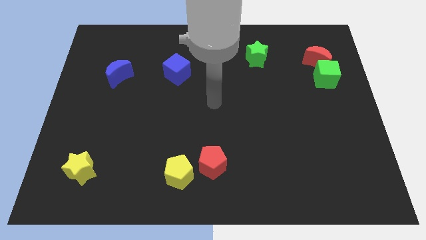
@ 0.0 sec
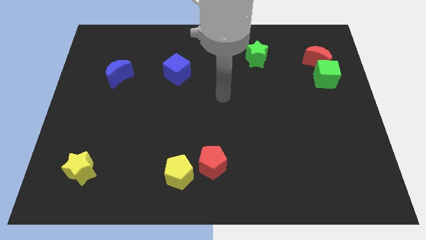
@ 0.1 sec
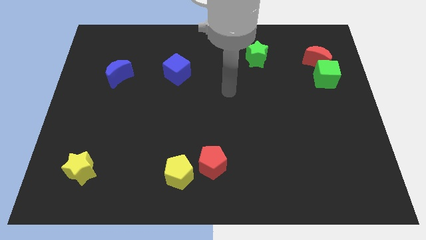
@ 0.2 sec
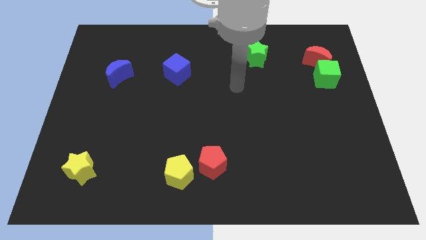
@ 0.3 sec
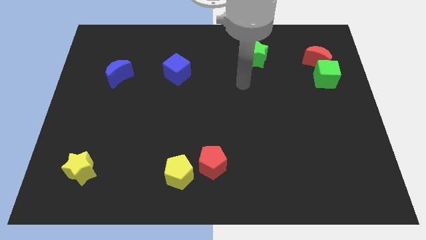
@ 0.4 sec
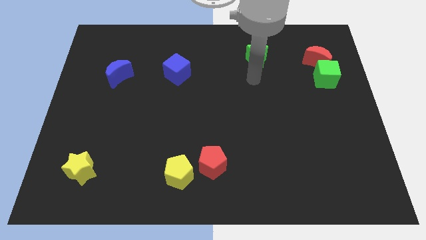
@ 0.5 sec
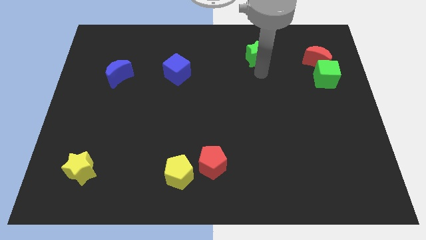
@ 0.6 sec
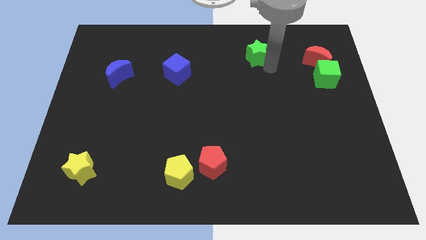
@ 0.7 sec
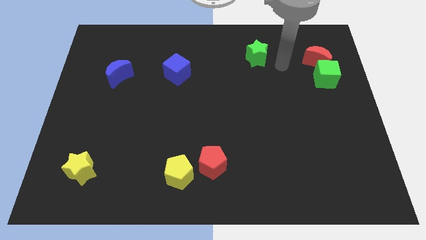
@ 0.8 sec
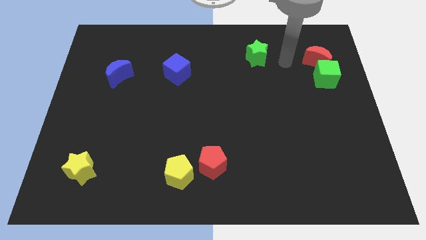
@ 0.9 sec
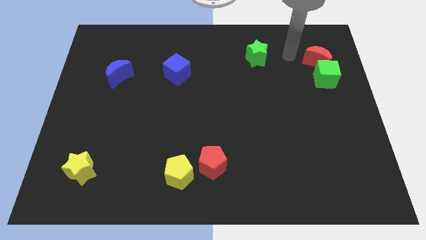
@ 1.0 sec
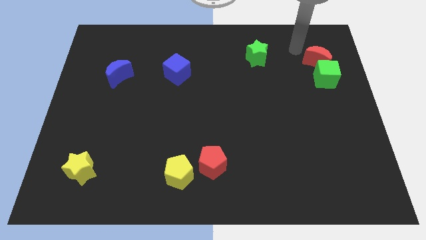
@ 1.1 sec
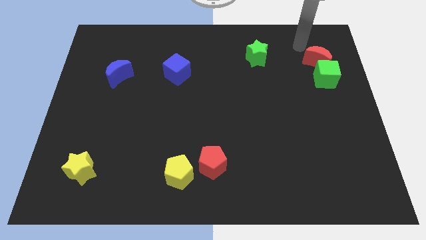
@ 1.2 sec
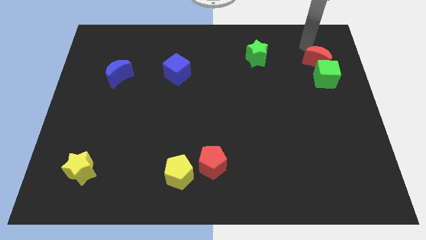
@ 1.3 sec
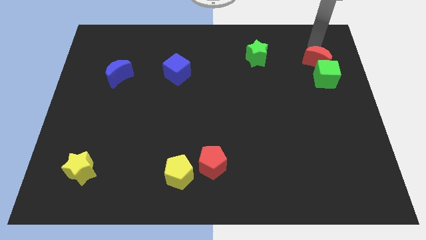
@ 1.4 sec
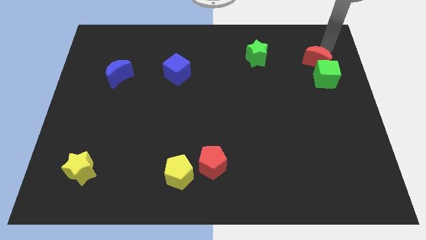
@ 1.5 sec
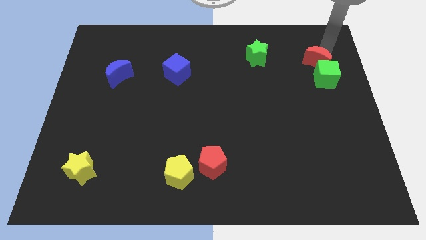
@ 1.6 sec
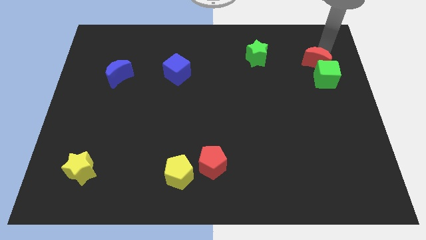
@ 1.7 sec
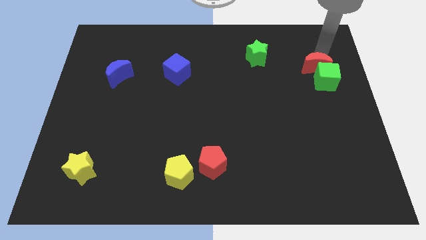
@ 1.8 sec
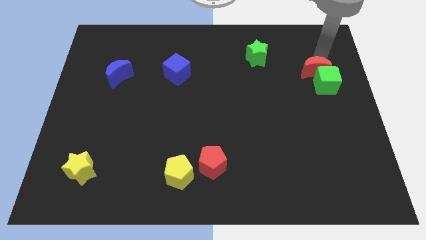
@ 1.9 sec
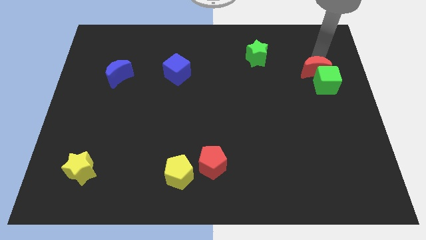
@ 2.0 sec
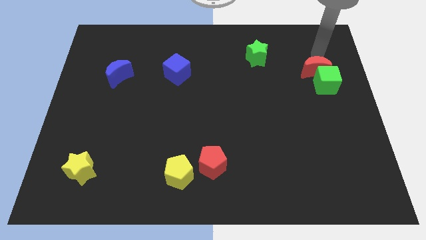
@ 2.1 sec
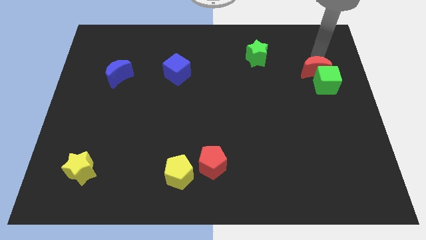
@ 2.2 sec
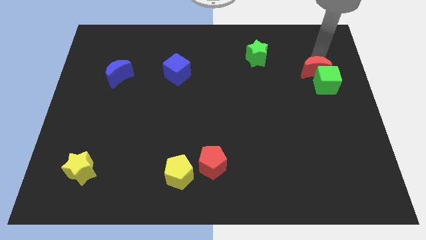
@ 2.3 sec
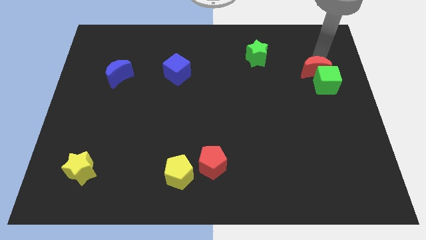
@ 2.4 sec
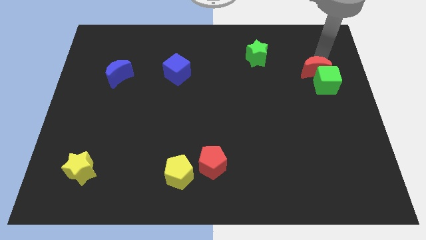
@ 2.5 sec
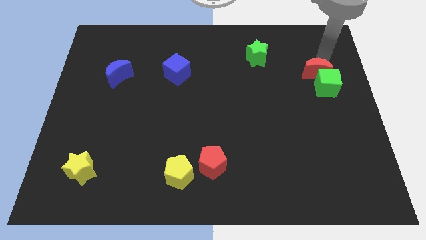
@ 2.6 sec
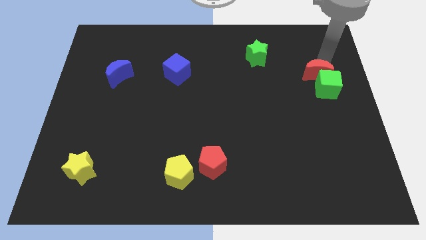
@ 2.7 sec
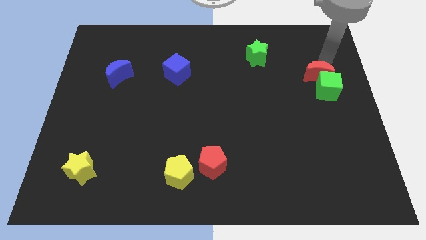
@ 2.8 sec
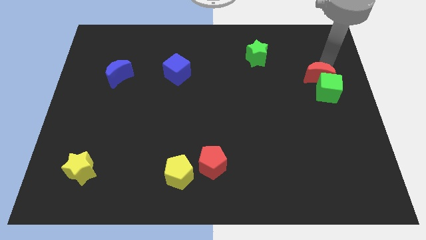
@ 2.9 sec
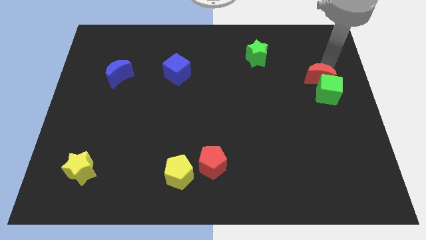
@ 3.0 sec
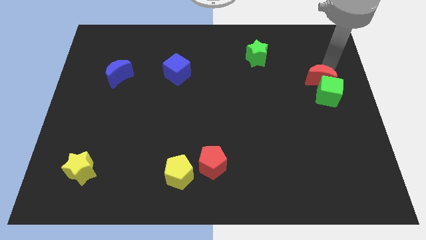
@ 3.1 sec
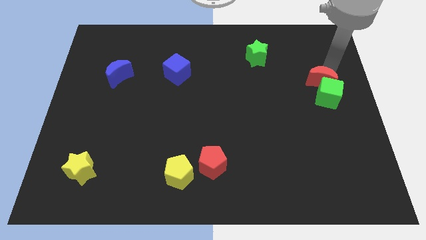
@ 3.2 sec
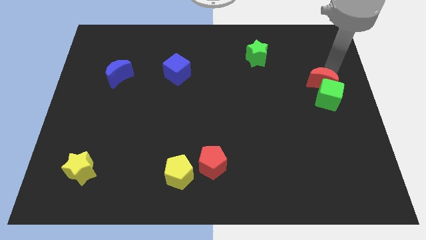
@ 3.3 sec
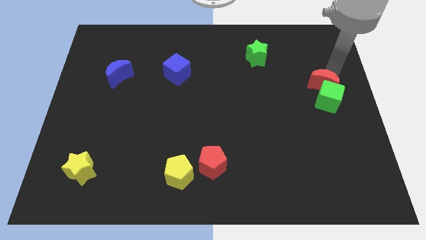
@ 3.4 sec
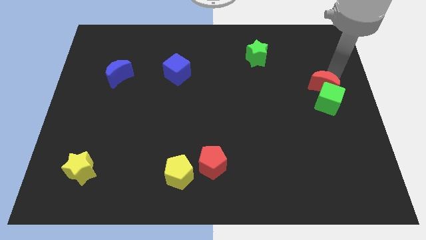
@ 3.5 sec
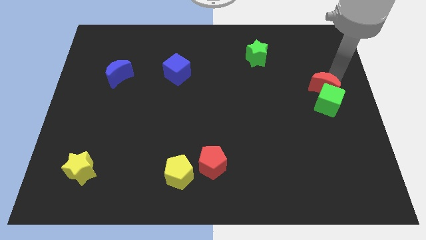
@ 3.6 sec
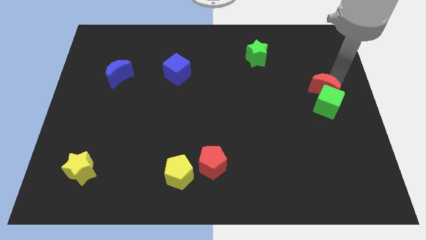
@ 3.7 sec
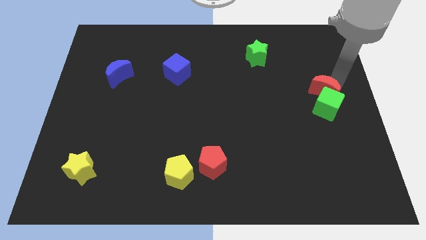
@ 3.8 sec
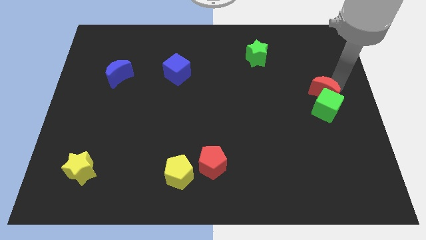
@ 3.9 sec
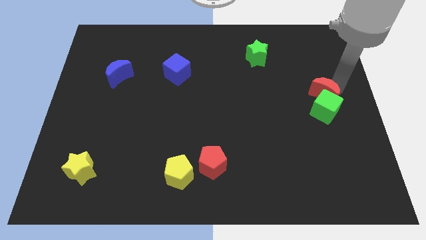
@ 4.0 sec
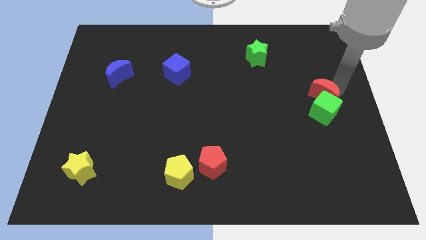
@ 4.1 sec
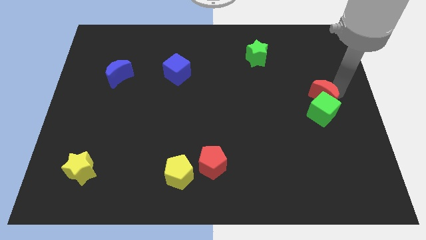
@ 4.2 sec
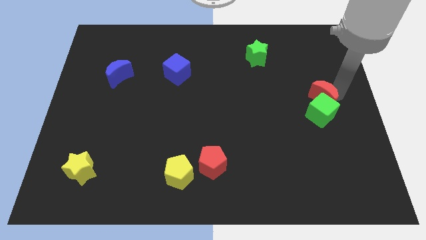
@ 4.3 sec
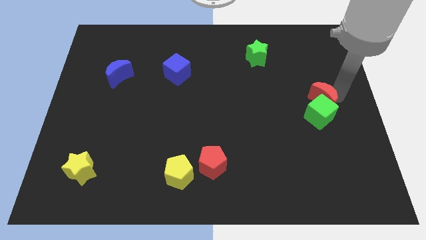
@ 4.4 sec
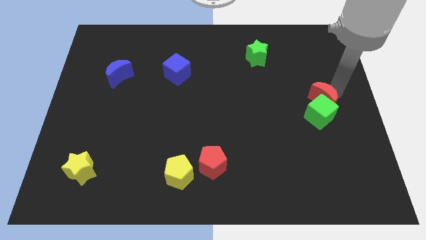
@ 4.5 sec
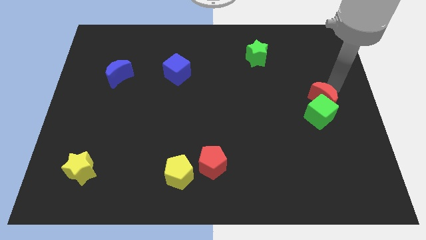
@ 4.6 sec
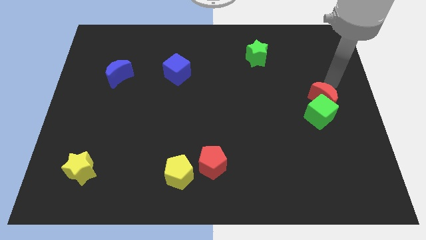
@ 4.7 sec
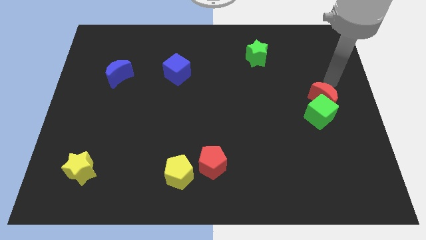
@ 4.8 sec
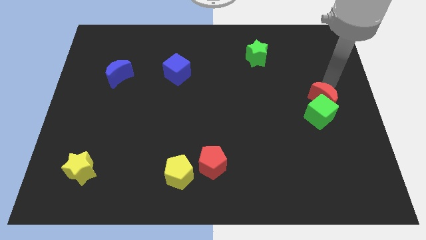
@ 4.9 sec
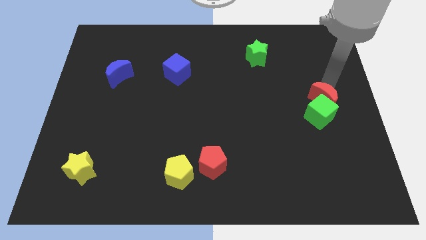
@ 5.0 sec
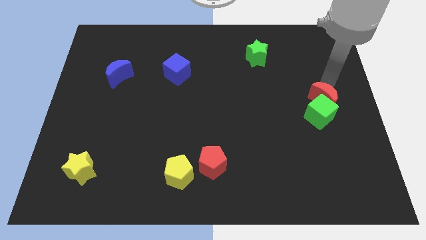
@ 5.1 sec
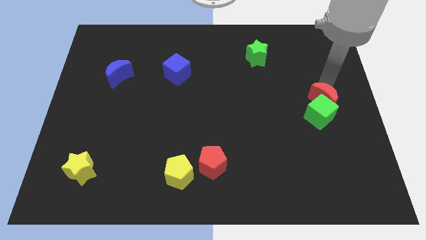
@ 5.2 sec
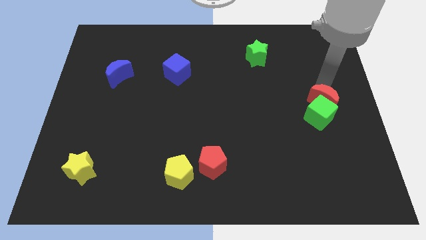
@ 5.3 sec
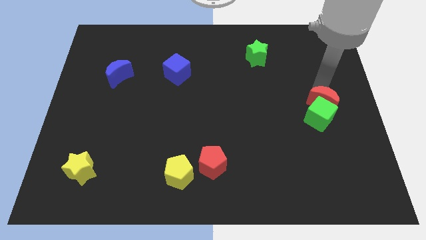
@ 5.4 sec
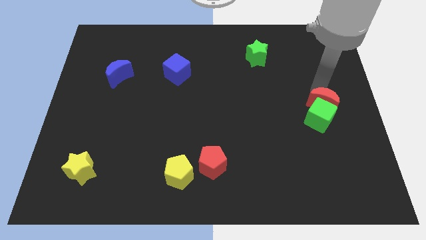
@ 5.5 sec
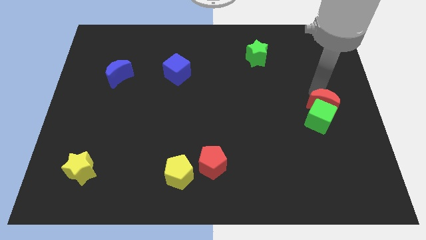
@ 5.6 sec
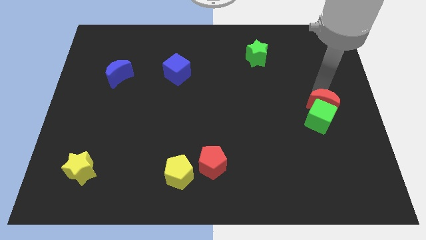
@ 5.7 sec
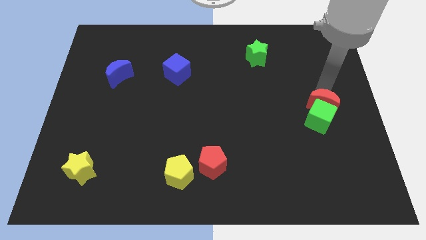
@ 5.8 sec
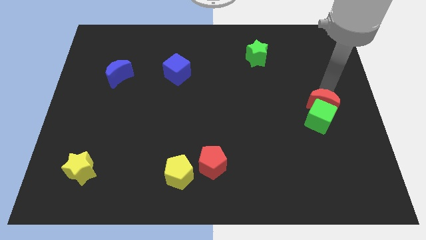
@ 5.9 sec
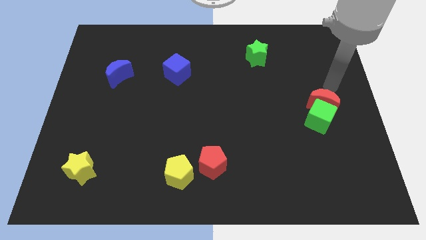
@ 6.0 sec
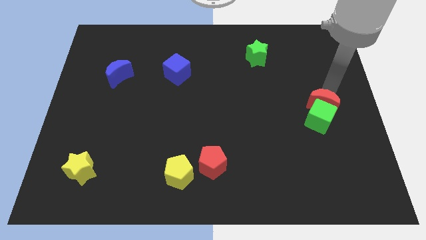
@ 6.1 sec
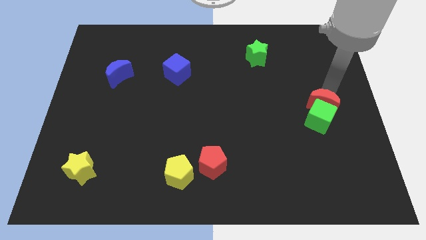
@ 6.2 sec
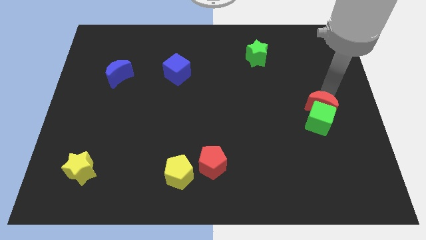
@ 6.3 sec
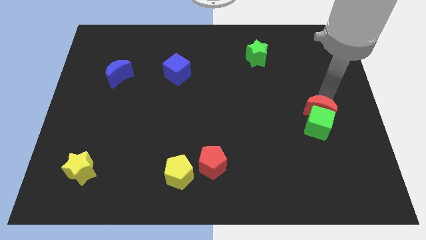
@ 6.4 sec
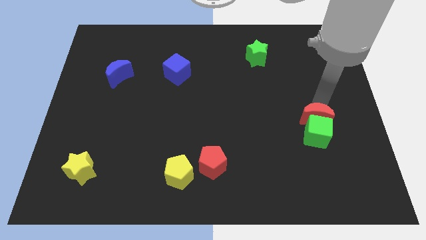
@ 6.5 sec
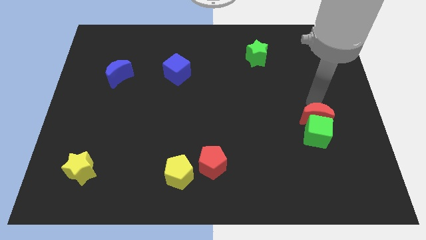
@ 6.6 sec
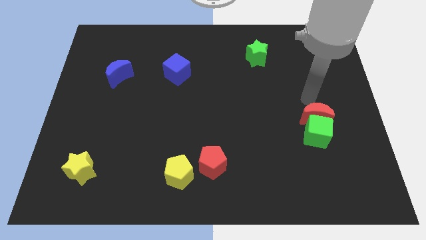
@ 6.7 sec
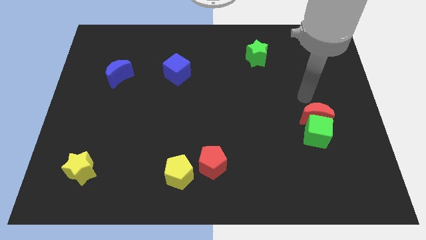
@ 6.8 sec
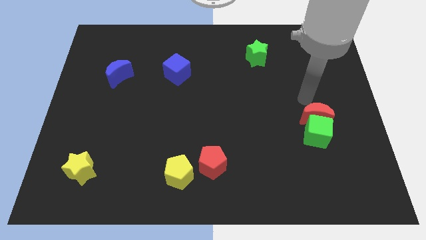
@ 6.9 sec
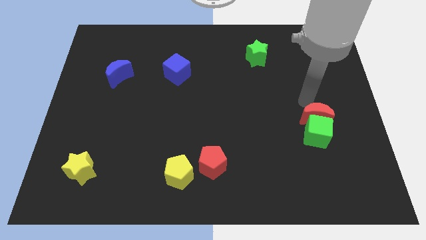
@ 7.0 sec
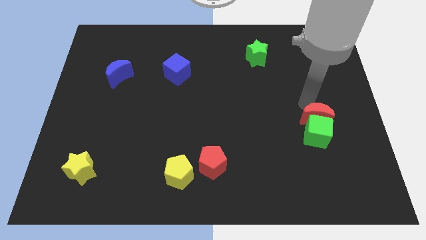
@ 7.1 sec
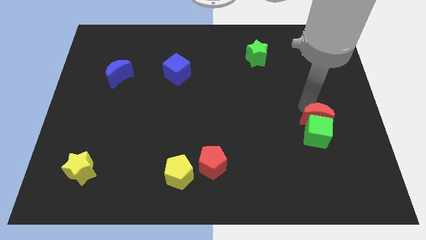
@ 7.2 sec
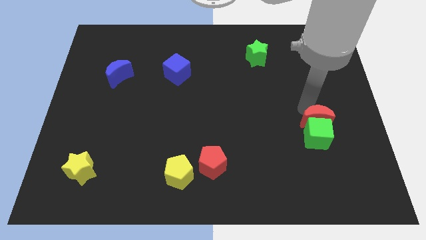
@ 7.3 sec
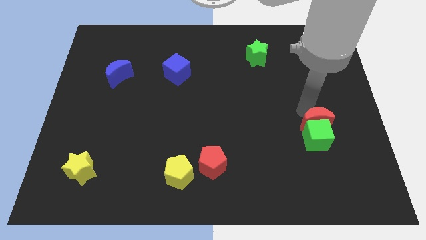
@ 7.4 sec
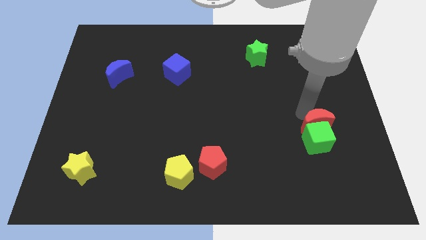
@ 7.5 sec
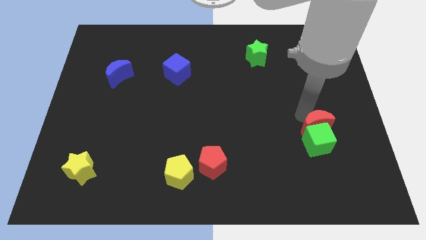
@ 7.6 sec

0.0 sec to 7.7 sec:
slide the red moon downwards

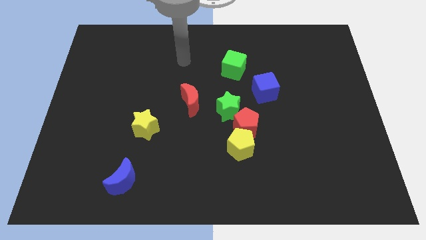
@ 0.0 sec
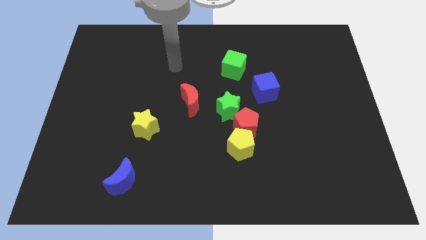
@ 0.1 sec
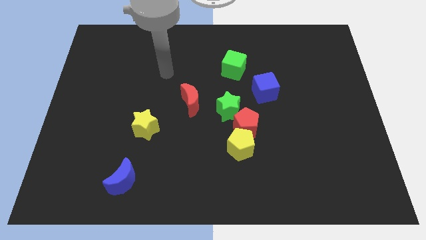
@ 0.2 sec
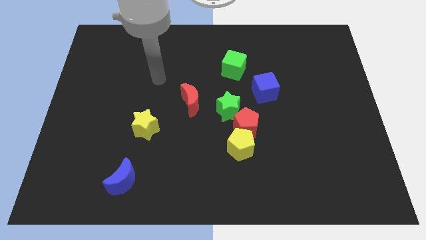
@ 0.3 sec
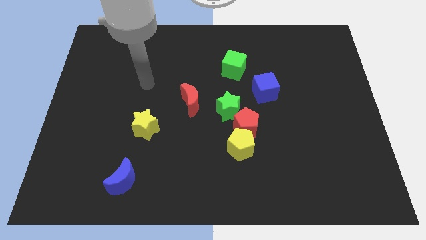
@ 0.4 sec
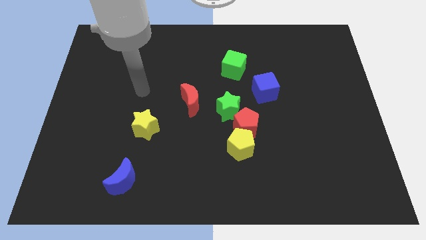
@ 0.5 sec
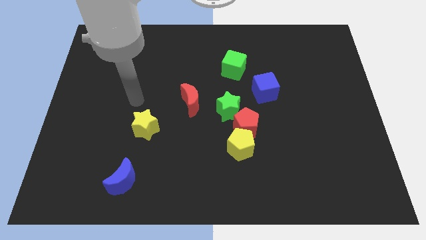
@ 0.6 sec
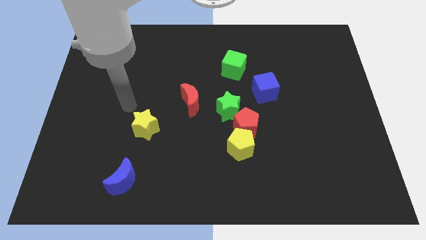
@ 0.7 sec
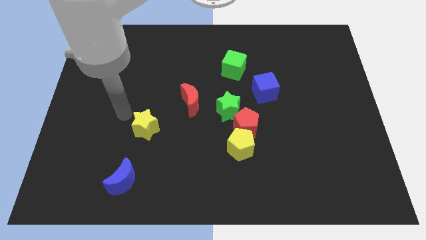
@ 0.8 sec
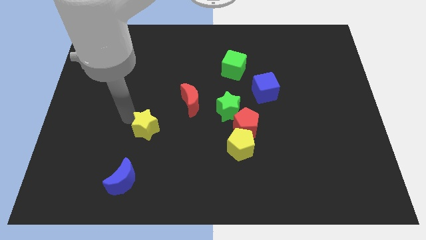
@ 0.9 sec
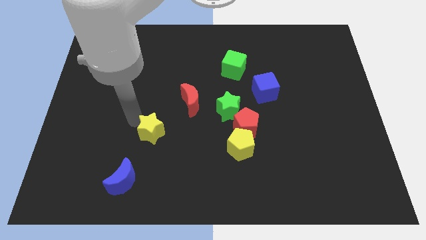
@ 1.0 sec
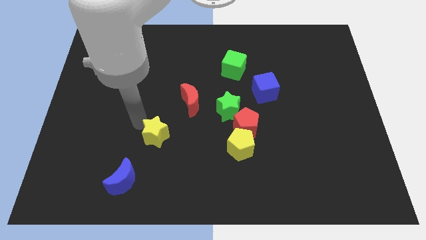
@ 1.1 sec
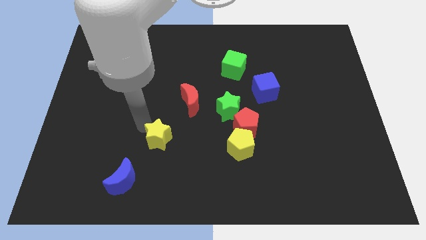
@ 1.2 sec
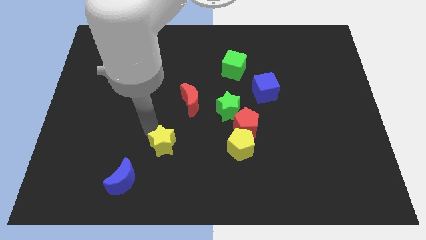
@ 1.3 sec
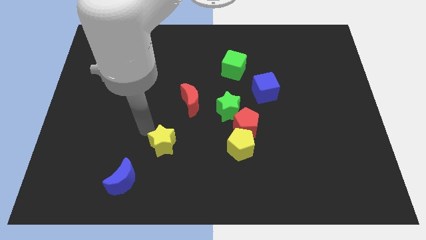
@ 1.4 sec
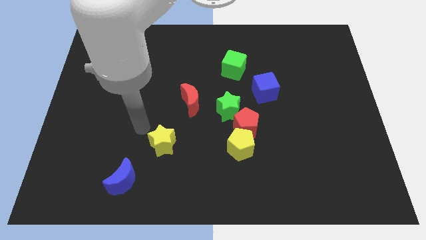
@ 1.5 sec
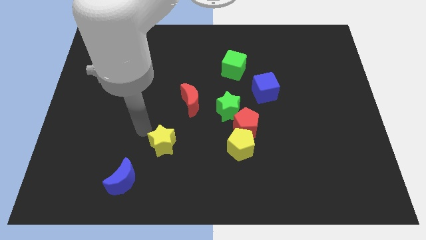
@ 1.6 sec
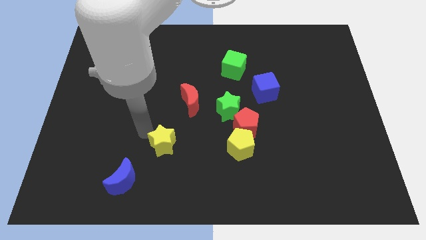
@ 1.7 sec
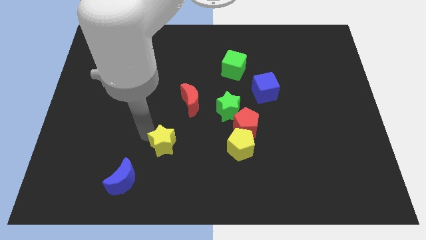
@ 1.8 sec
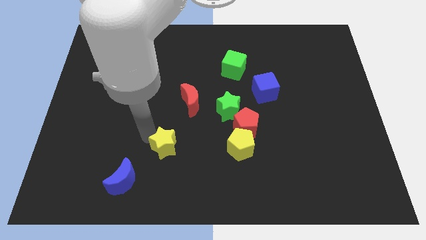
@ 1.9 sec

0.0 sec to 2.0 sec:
slightly slide the yellow star downwards and then to the right
